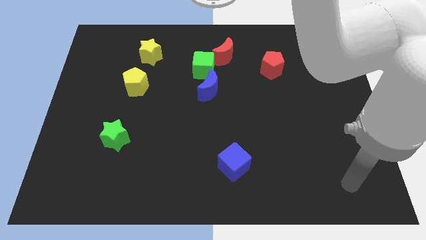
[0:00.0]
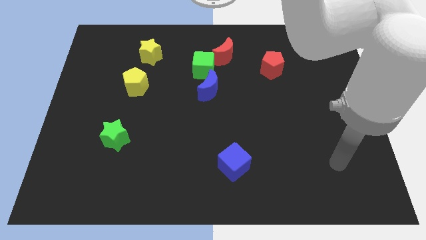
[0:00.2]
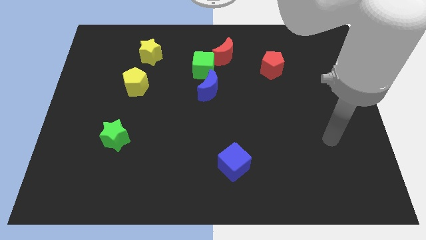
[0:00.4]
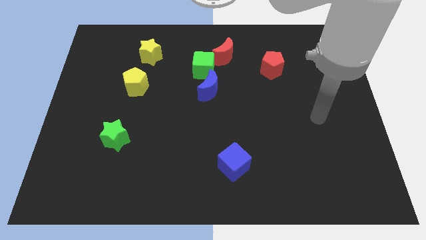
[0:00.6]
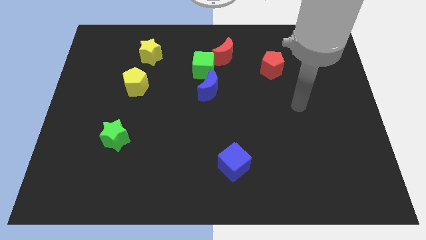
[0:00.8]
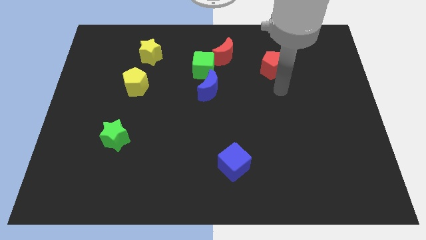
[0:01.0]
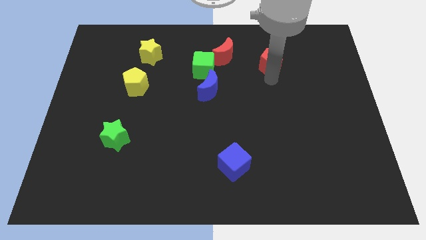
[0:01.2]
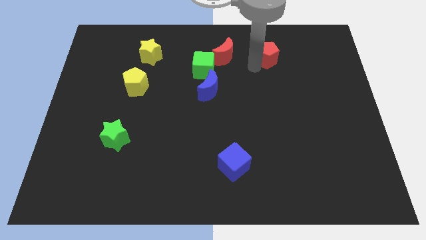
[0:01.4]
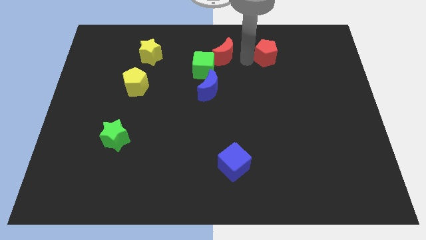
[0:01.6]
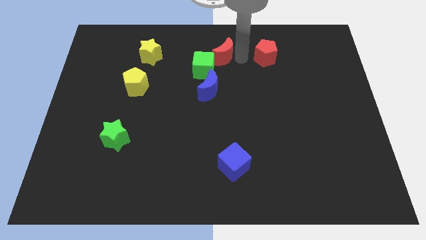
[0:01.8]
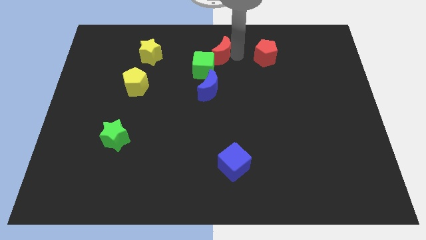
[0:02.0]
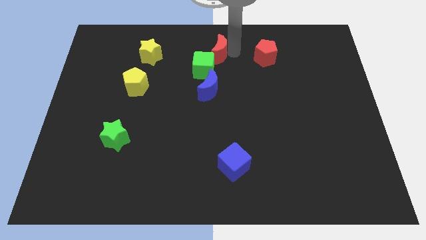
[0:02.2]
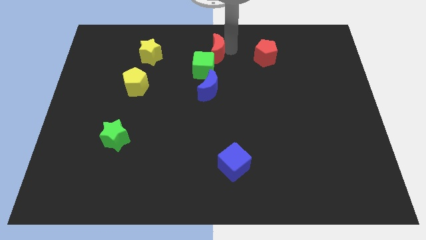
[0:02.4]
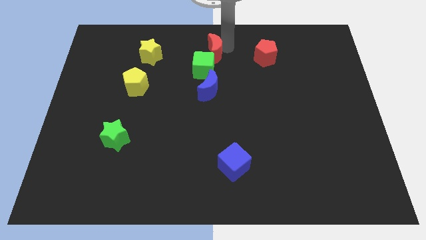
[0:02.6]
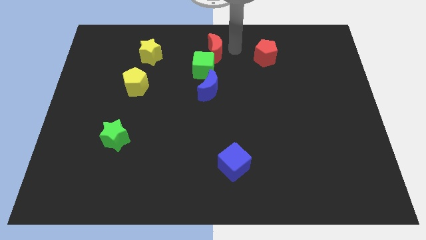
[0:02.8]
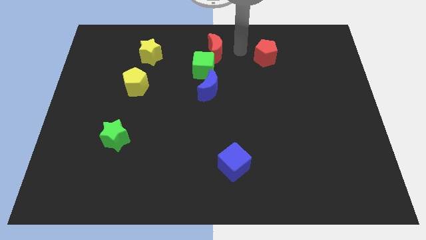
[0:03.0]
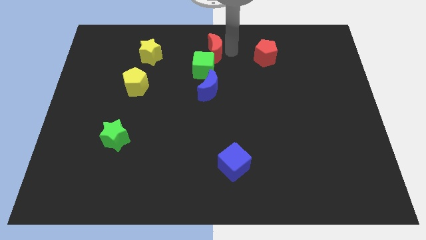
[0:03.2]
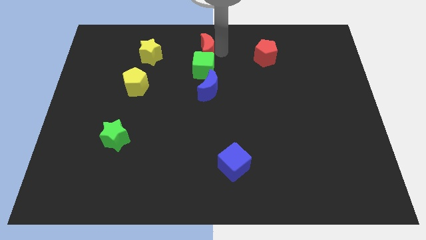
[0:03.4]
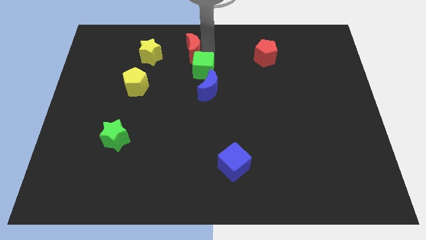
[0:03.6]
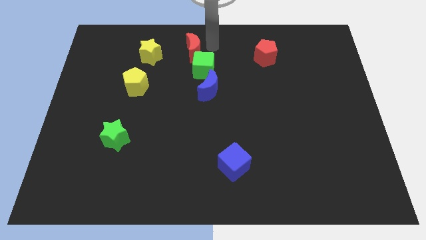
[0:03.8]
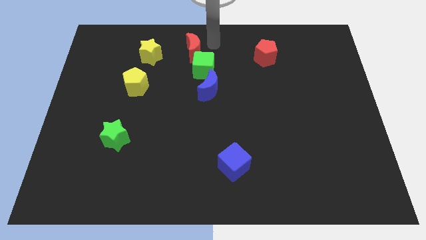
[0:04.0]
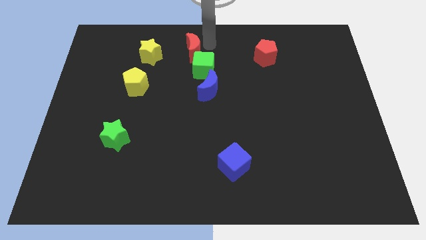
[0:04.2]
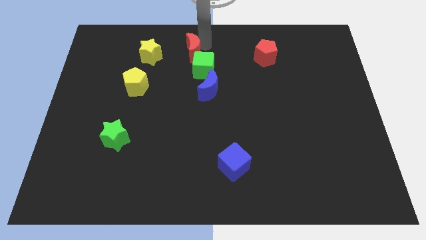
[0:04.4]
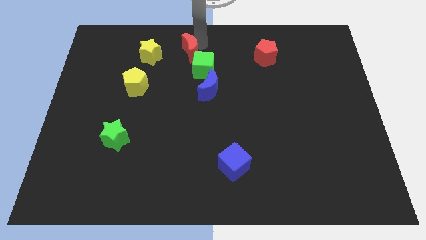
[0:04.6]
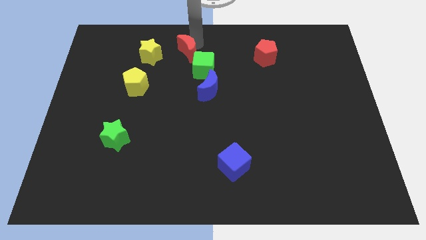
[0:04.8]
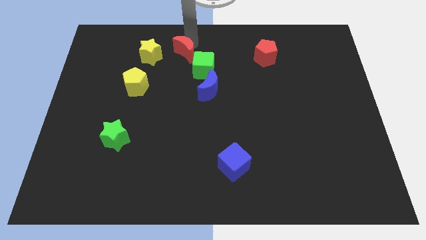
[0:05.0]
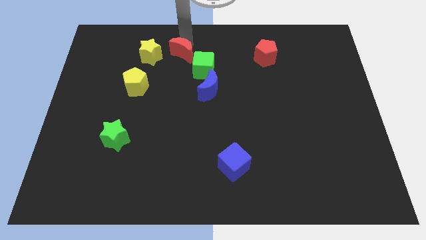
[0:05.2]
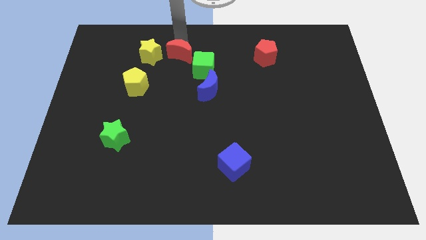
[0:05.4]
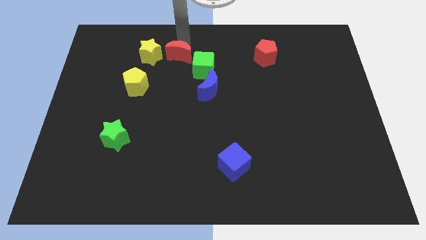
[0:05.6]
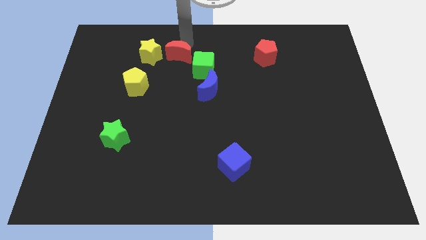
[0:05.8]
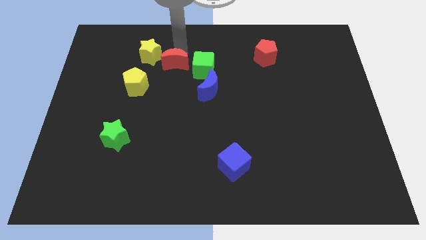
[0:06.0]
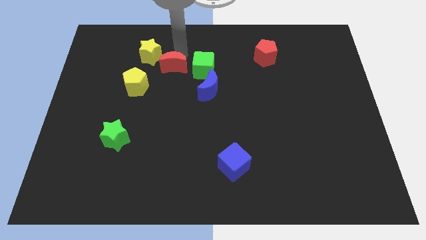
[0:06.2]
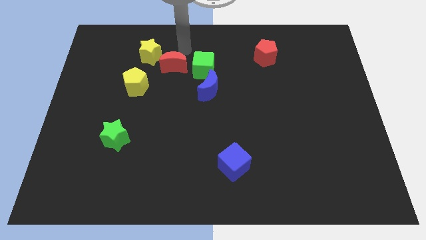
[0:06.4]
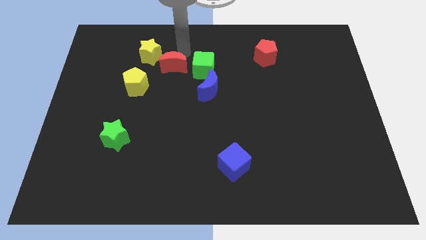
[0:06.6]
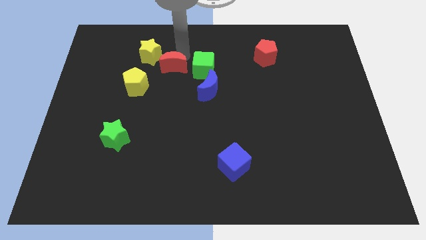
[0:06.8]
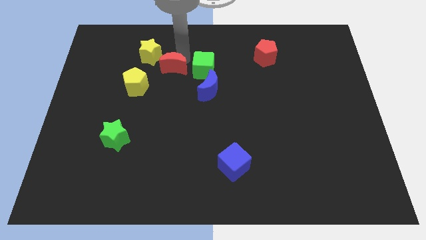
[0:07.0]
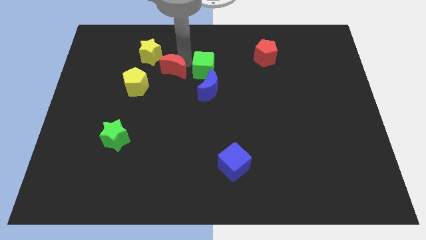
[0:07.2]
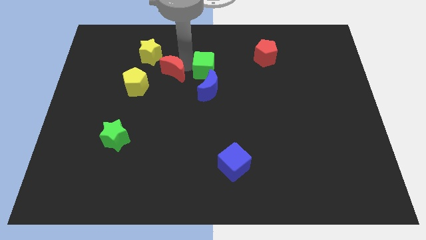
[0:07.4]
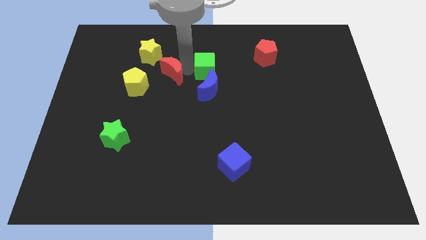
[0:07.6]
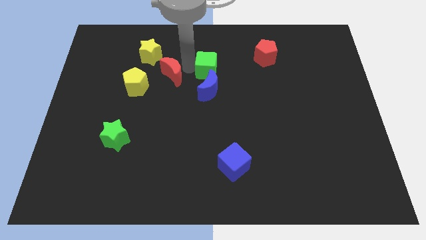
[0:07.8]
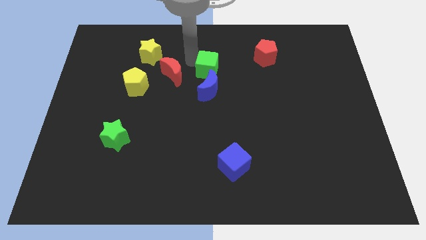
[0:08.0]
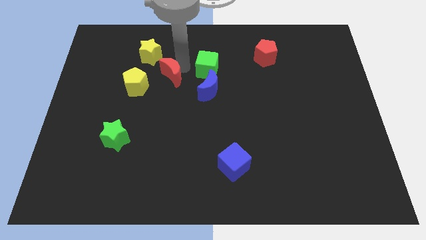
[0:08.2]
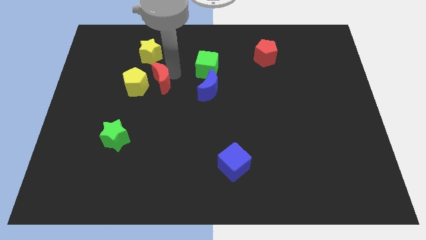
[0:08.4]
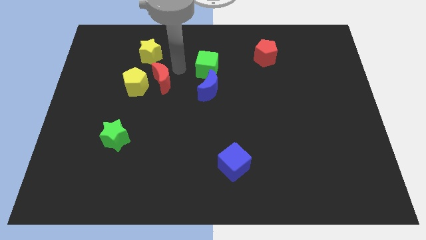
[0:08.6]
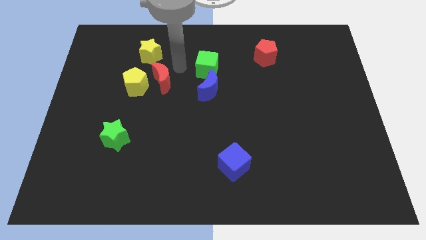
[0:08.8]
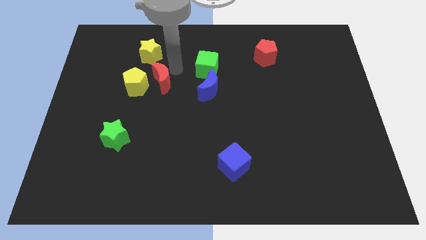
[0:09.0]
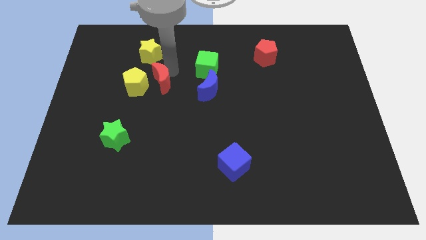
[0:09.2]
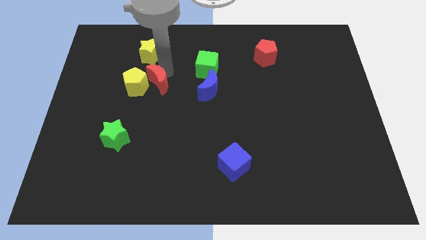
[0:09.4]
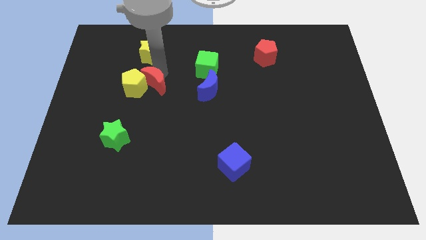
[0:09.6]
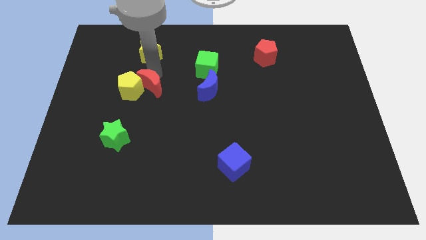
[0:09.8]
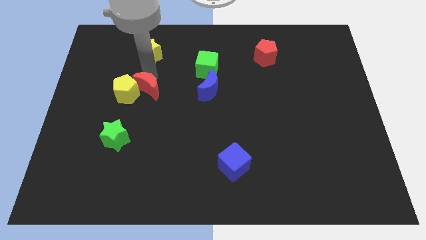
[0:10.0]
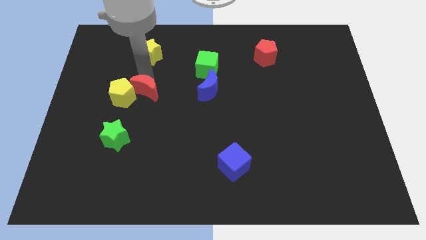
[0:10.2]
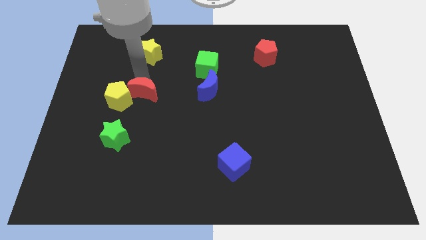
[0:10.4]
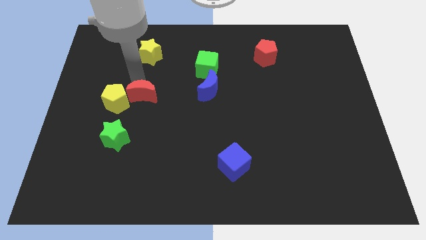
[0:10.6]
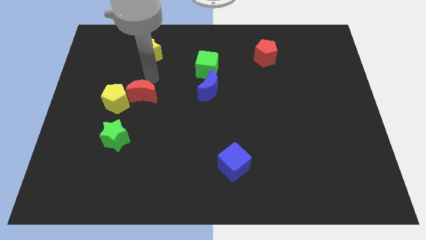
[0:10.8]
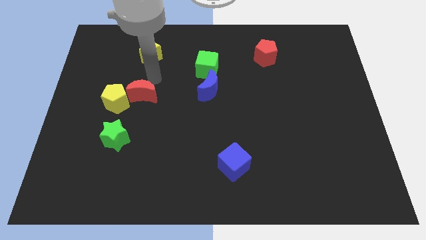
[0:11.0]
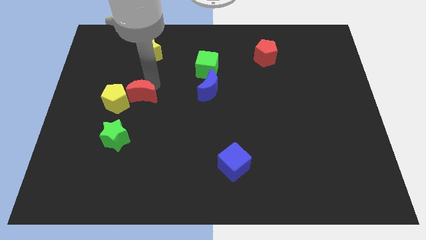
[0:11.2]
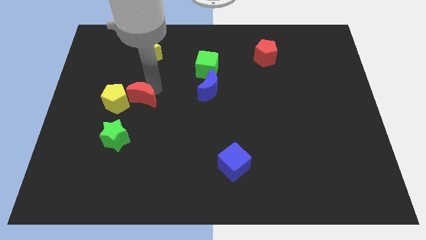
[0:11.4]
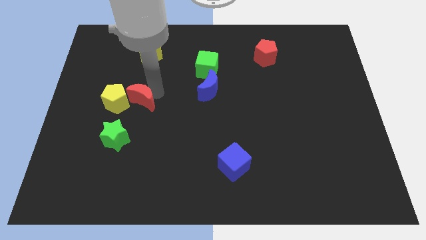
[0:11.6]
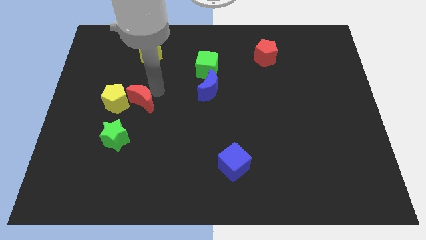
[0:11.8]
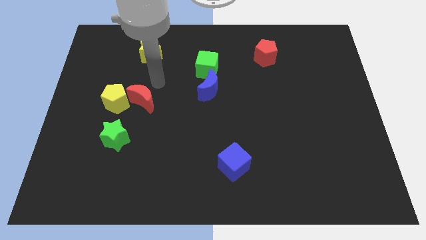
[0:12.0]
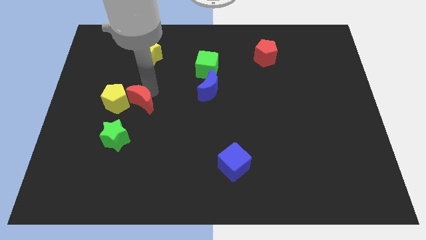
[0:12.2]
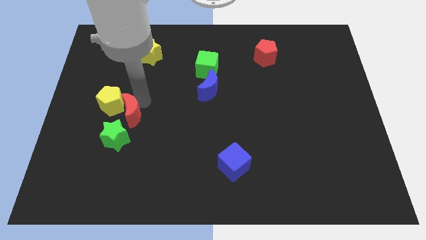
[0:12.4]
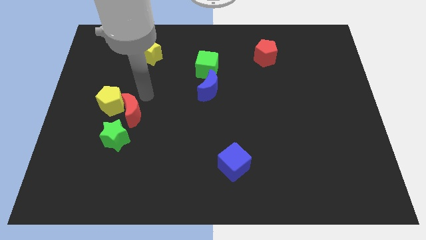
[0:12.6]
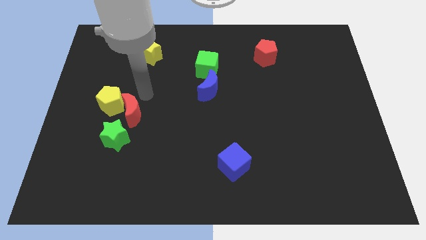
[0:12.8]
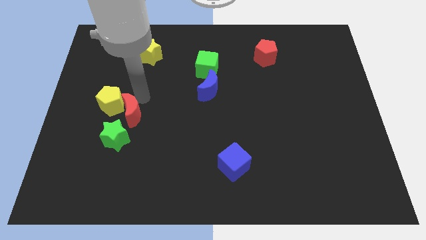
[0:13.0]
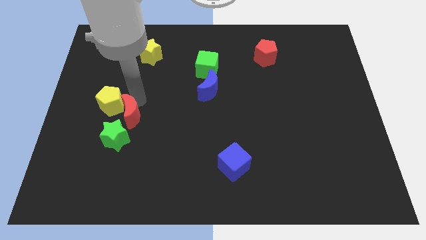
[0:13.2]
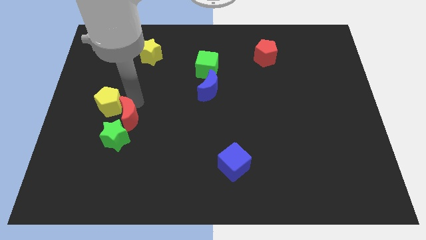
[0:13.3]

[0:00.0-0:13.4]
put the red moon to the green star

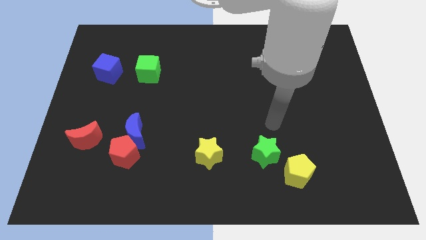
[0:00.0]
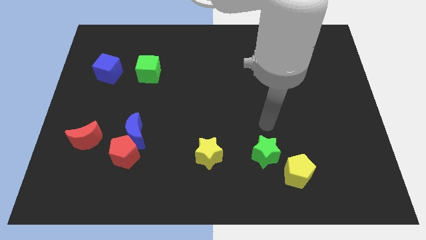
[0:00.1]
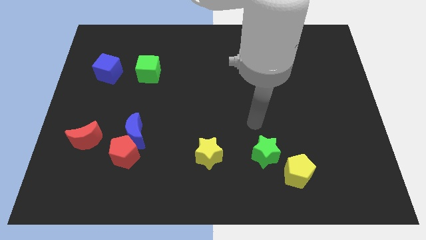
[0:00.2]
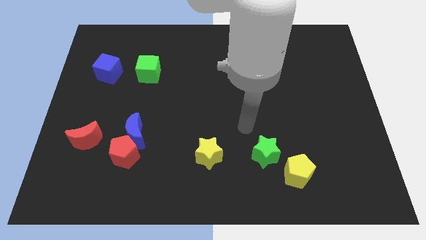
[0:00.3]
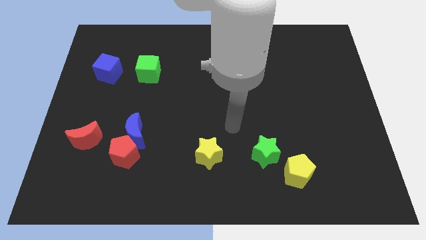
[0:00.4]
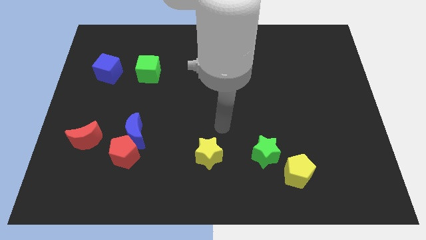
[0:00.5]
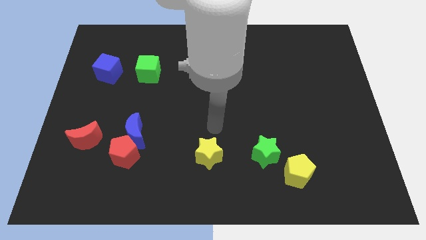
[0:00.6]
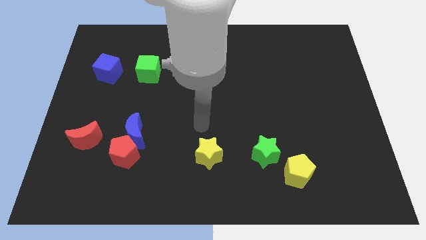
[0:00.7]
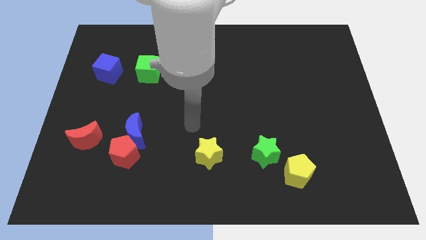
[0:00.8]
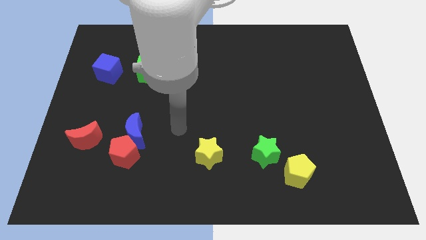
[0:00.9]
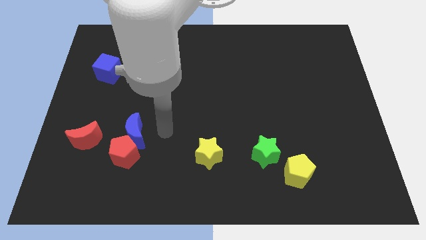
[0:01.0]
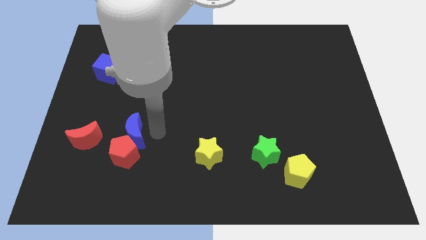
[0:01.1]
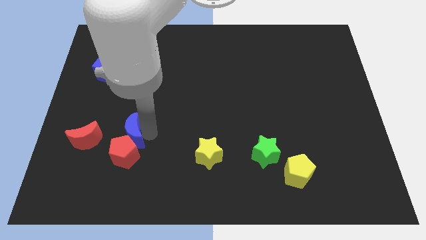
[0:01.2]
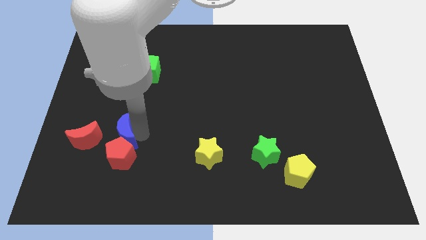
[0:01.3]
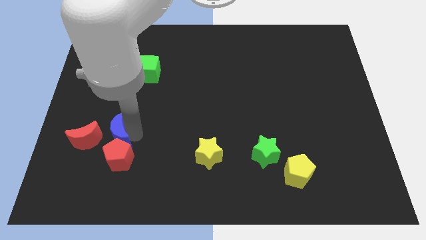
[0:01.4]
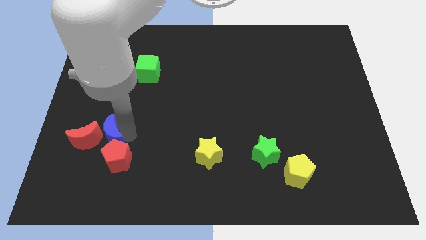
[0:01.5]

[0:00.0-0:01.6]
put the blue moon next to the red moon
